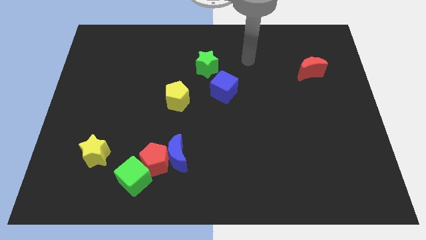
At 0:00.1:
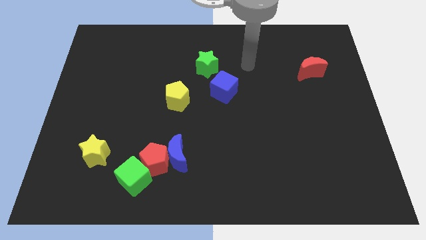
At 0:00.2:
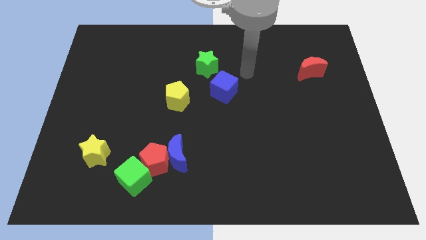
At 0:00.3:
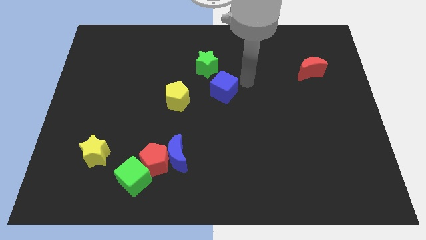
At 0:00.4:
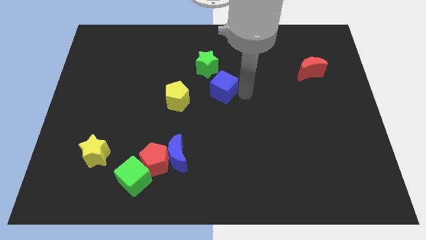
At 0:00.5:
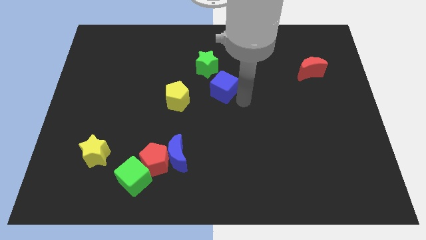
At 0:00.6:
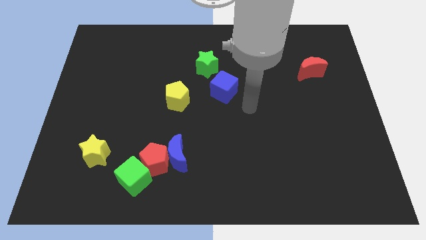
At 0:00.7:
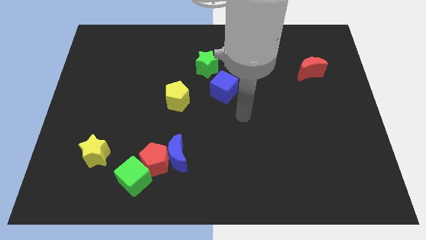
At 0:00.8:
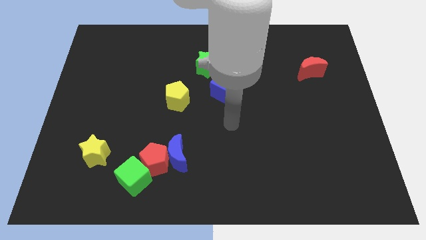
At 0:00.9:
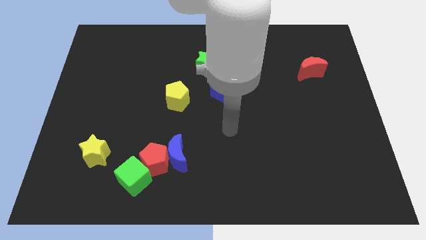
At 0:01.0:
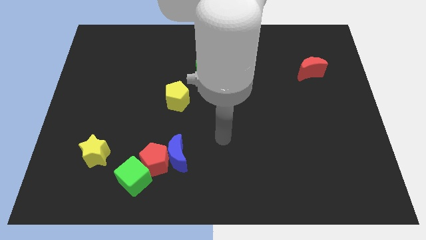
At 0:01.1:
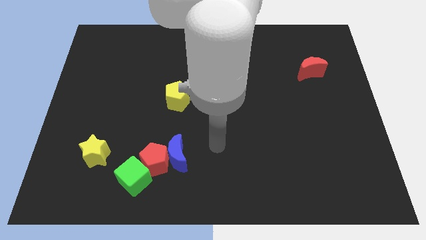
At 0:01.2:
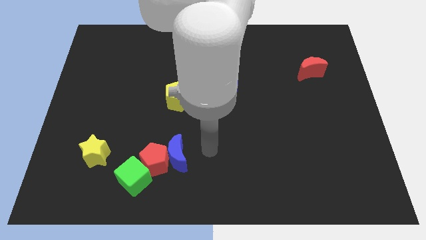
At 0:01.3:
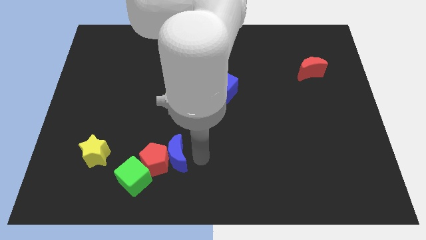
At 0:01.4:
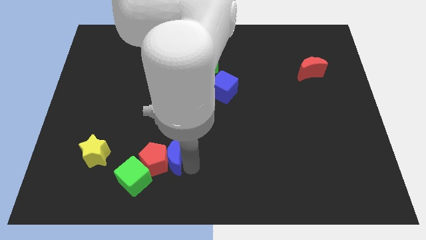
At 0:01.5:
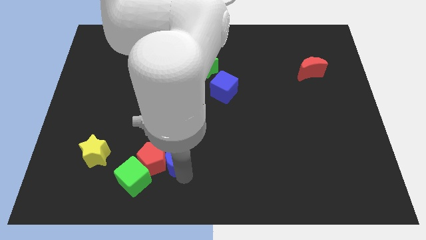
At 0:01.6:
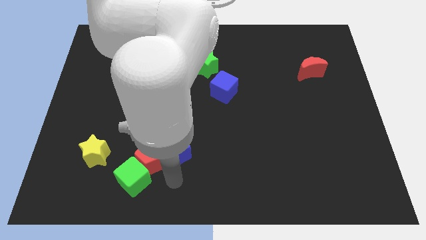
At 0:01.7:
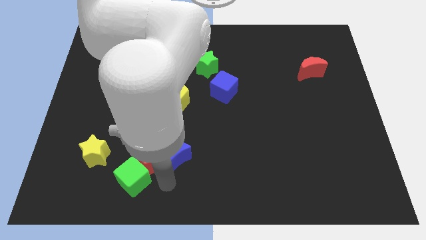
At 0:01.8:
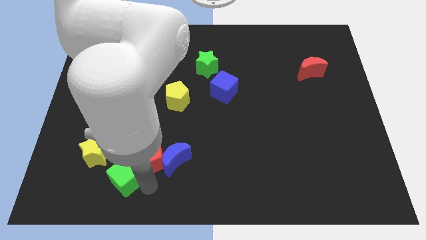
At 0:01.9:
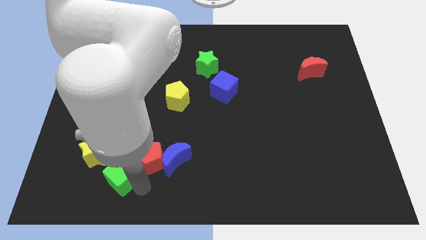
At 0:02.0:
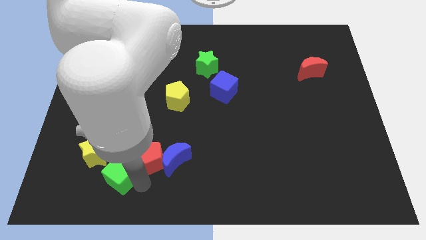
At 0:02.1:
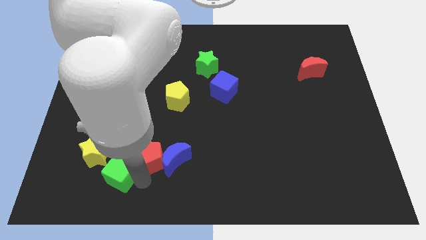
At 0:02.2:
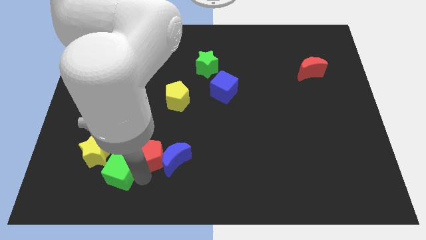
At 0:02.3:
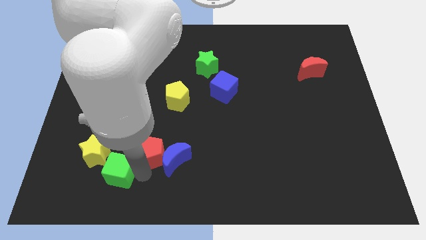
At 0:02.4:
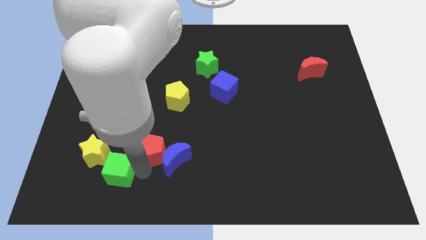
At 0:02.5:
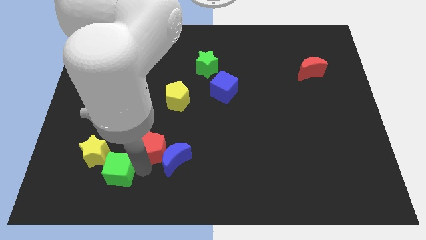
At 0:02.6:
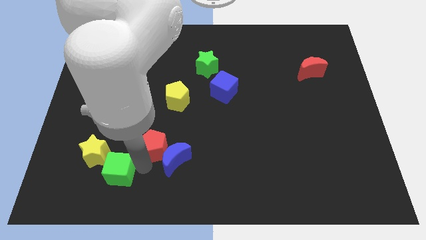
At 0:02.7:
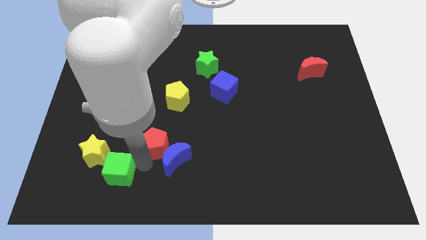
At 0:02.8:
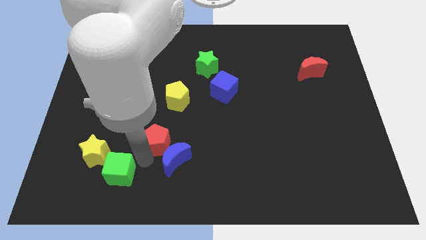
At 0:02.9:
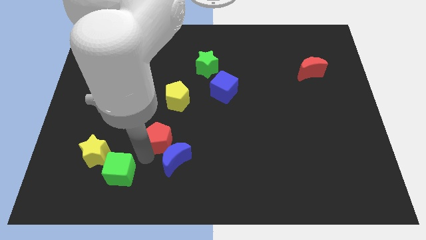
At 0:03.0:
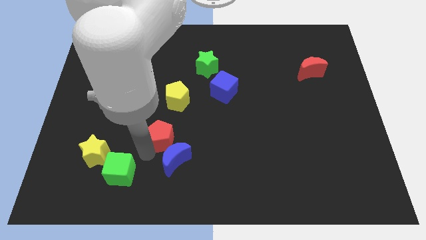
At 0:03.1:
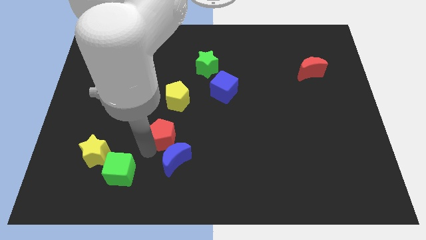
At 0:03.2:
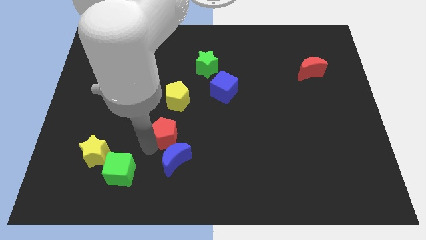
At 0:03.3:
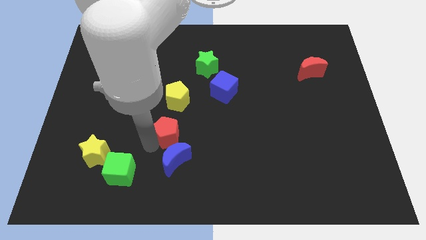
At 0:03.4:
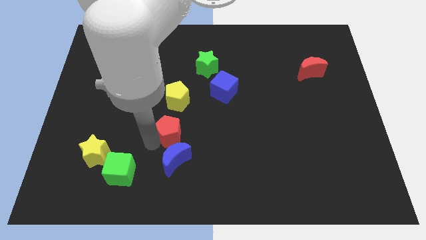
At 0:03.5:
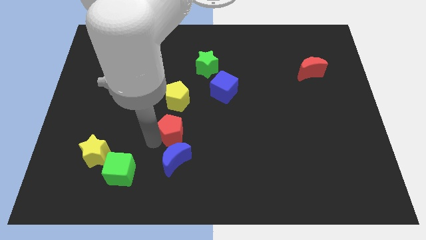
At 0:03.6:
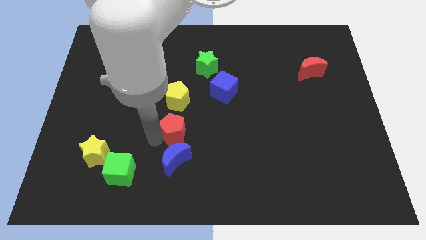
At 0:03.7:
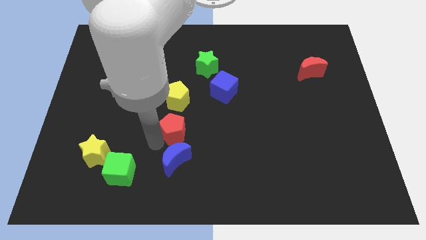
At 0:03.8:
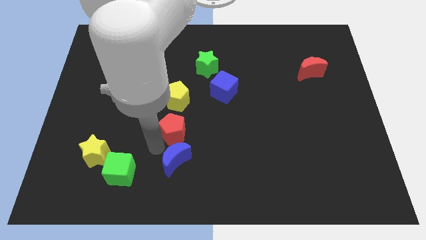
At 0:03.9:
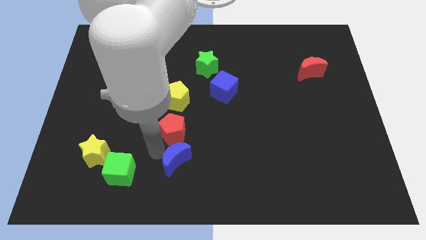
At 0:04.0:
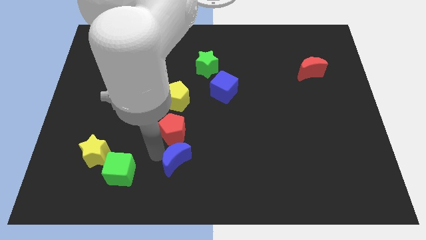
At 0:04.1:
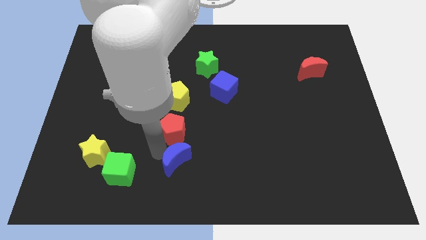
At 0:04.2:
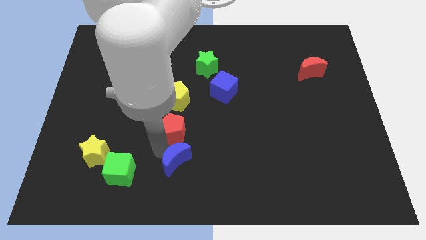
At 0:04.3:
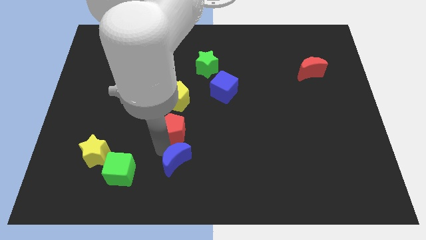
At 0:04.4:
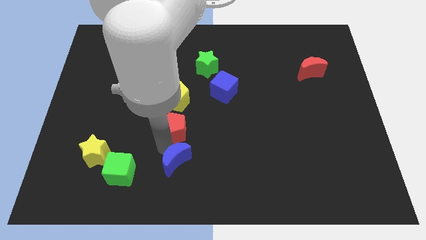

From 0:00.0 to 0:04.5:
move the red pentagon away from the blue moon and green cube

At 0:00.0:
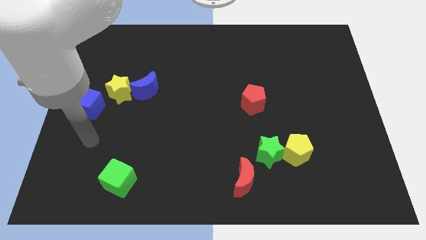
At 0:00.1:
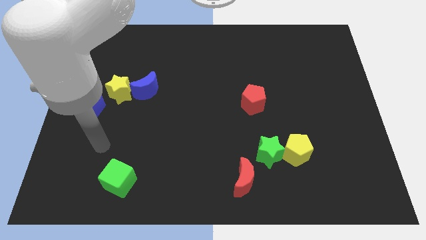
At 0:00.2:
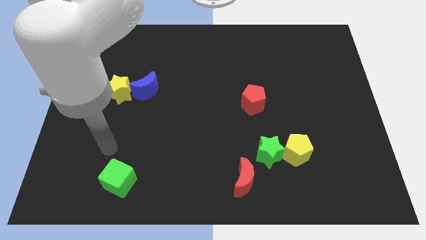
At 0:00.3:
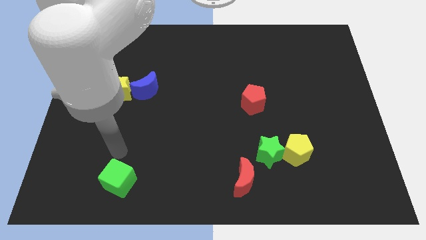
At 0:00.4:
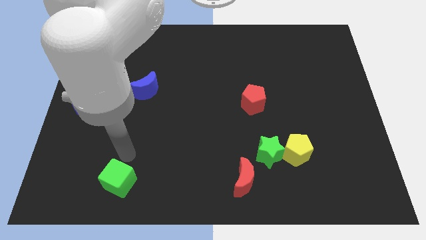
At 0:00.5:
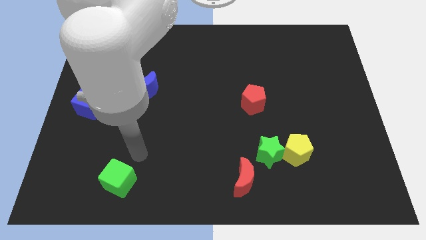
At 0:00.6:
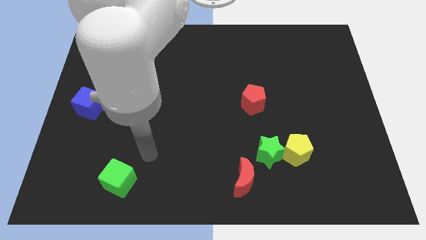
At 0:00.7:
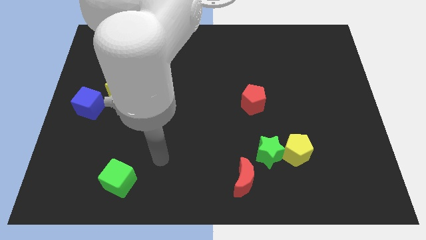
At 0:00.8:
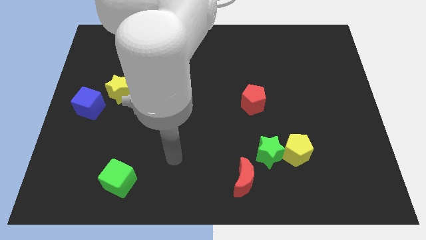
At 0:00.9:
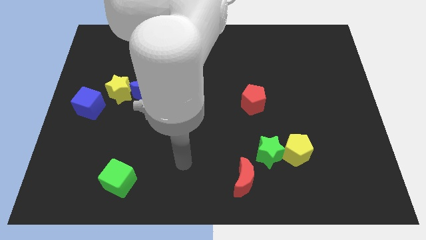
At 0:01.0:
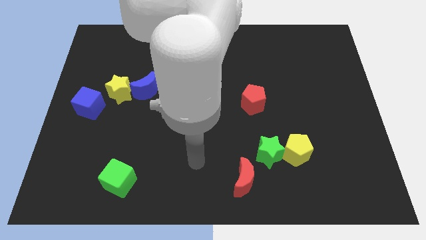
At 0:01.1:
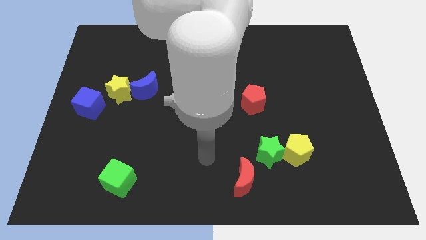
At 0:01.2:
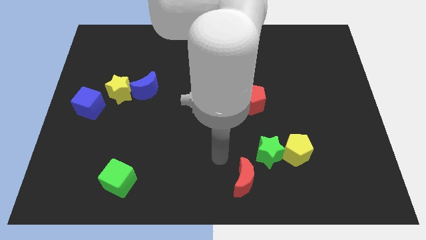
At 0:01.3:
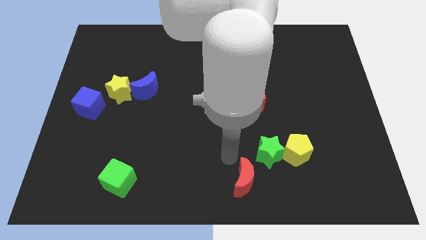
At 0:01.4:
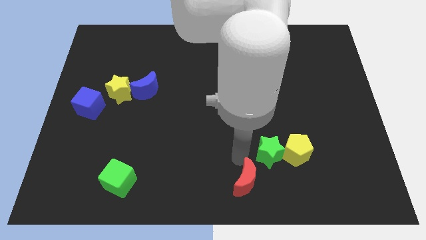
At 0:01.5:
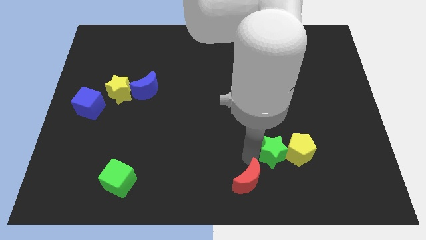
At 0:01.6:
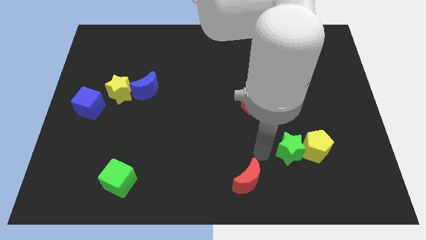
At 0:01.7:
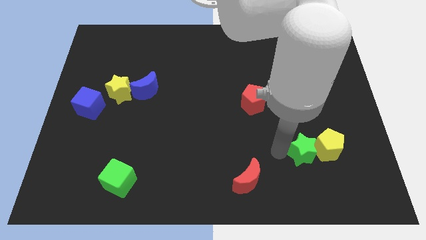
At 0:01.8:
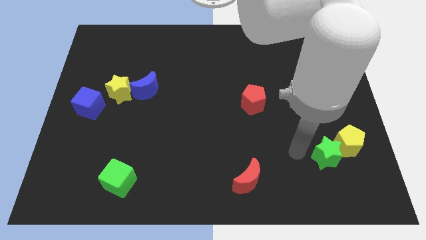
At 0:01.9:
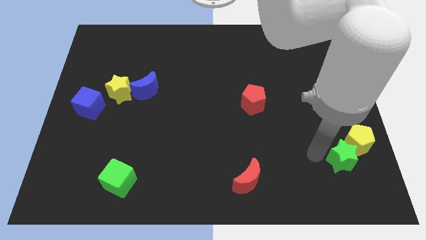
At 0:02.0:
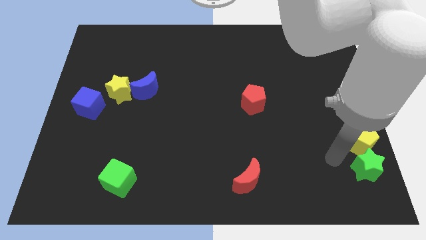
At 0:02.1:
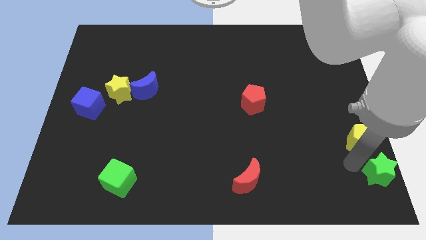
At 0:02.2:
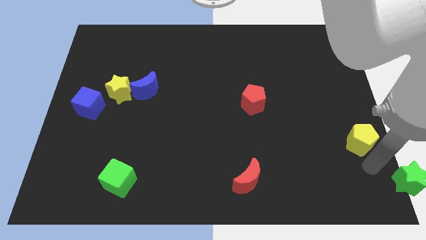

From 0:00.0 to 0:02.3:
separate the yellow pentagon from the green star

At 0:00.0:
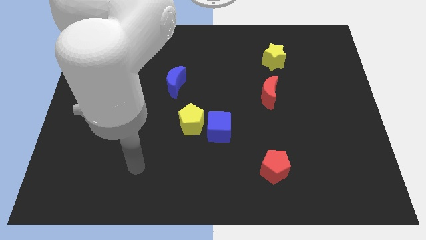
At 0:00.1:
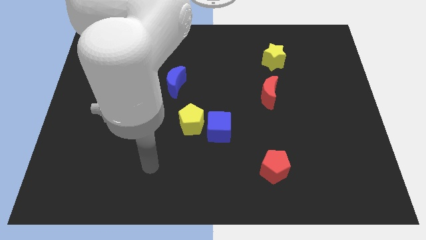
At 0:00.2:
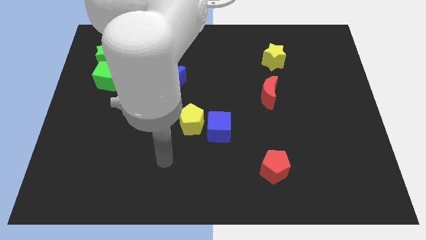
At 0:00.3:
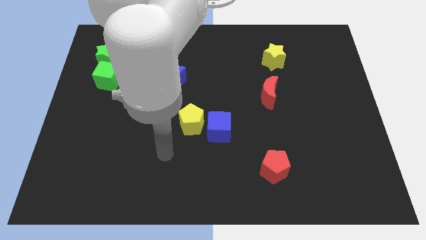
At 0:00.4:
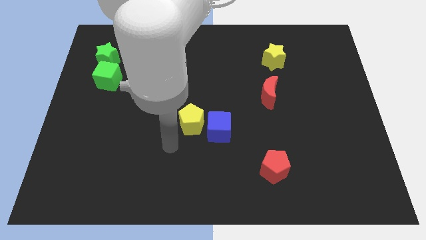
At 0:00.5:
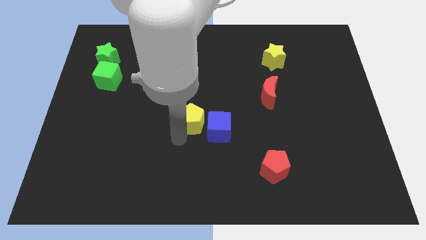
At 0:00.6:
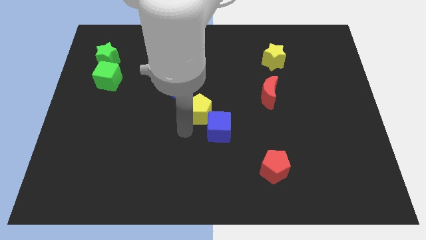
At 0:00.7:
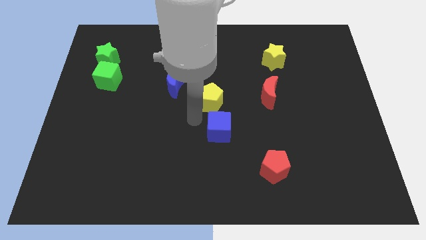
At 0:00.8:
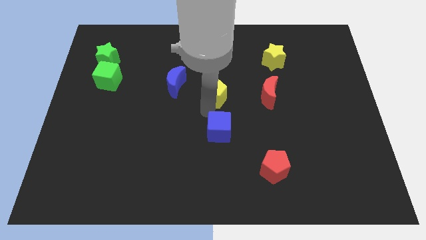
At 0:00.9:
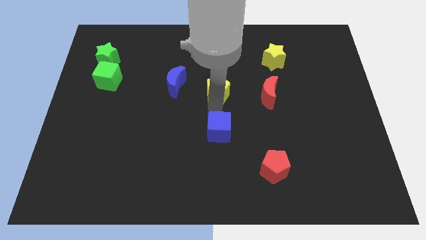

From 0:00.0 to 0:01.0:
move the blue cube away from the yellow pentagon

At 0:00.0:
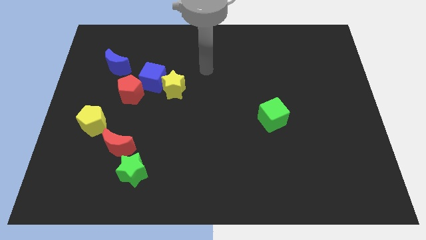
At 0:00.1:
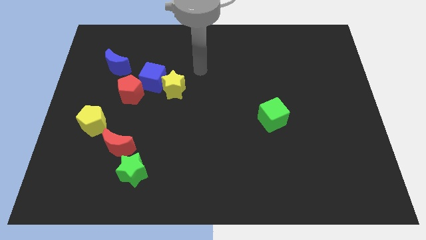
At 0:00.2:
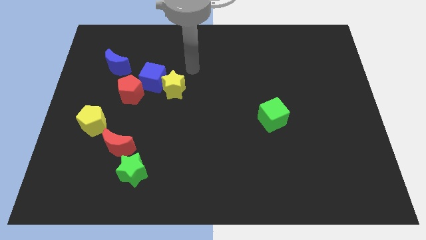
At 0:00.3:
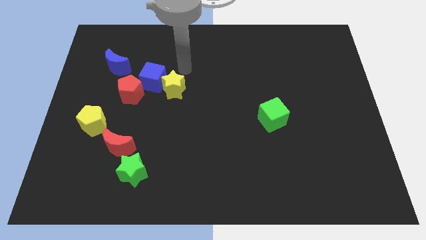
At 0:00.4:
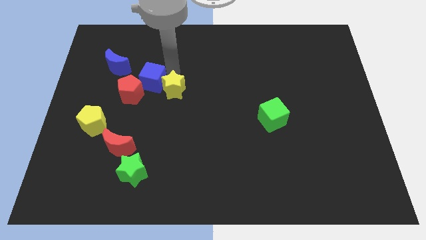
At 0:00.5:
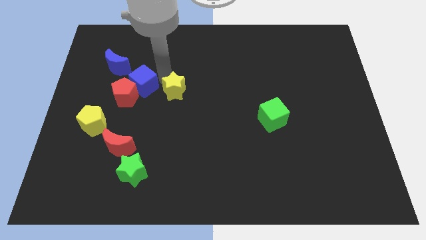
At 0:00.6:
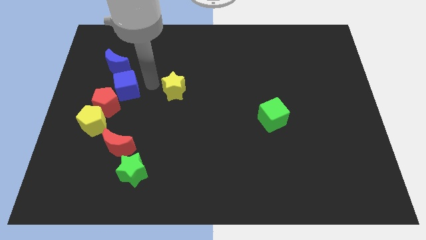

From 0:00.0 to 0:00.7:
pull the yellow star apart from the blue cube

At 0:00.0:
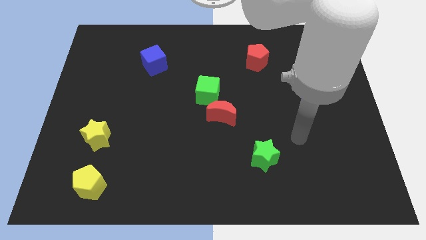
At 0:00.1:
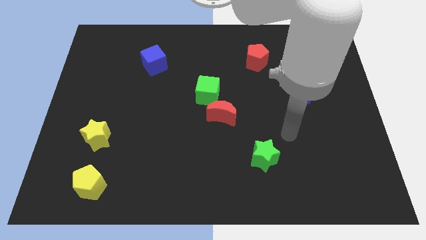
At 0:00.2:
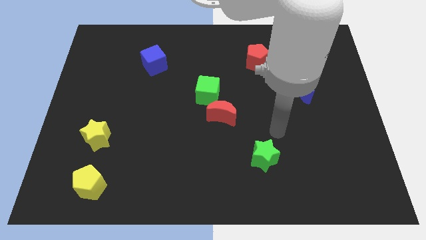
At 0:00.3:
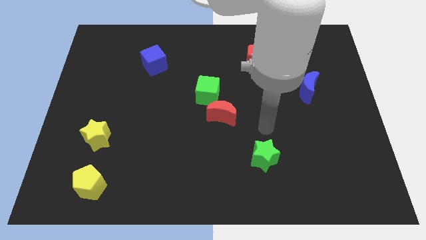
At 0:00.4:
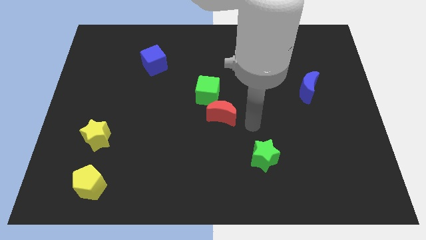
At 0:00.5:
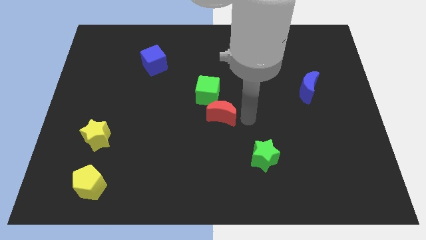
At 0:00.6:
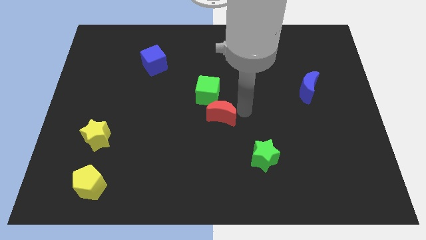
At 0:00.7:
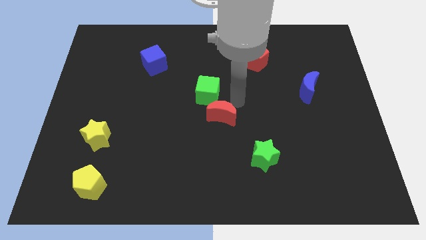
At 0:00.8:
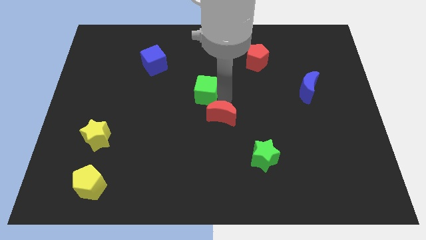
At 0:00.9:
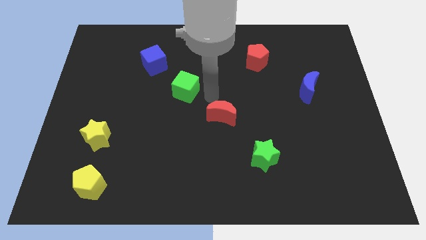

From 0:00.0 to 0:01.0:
separate the red moon from the green cube
